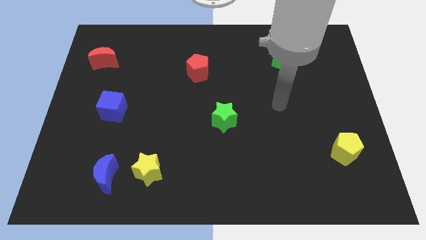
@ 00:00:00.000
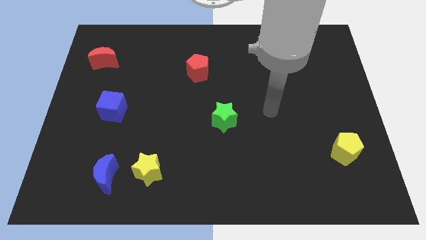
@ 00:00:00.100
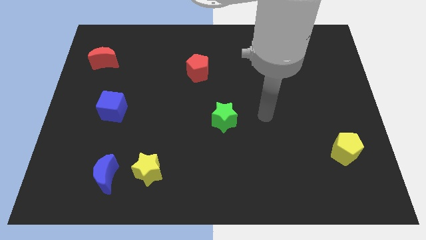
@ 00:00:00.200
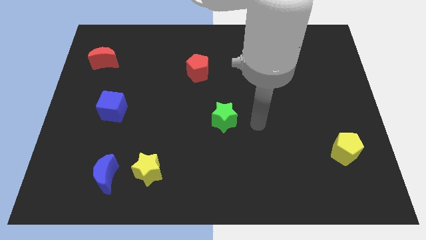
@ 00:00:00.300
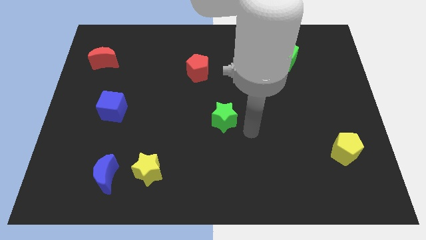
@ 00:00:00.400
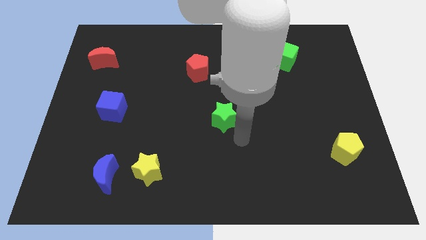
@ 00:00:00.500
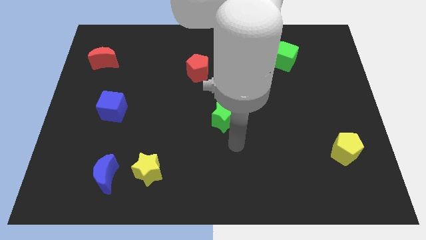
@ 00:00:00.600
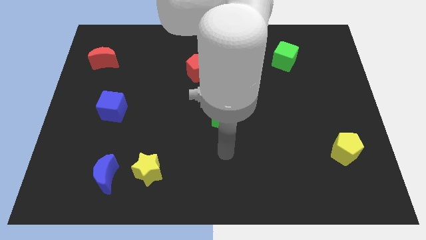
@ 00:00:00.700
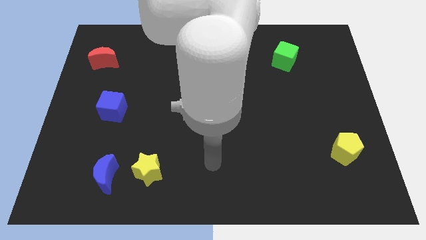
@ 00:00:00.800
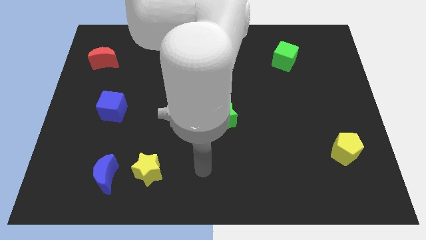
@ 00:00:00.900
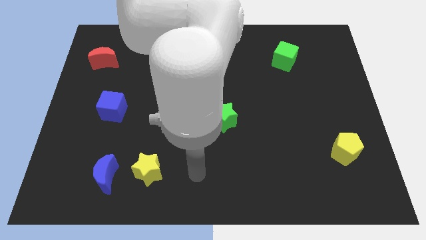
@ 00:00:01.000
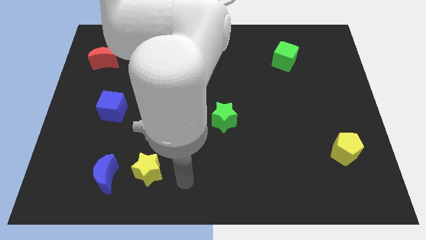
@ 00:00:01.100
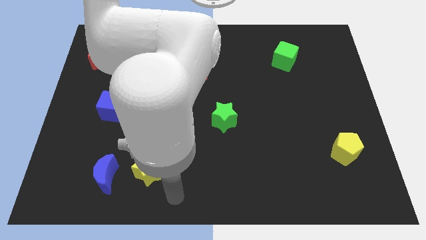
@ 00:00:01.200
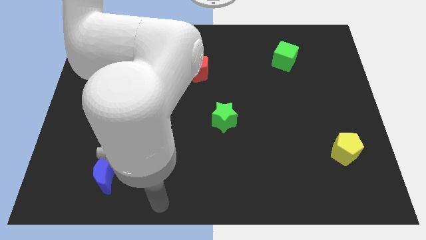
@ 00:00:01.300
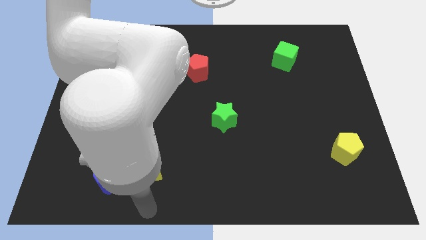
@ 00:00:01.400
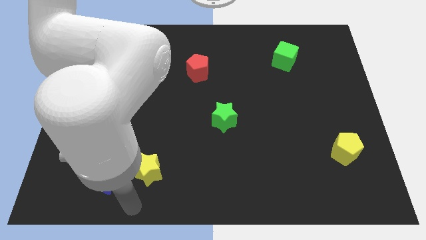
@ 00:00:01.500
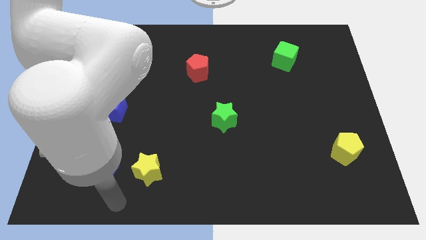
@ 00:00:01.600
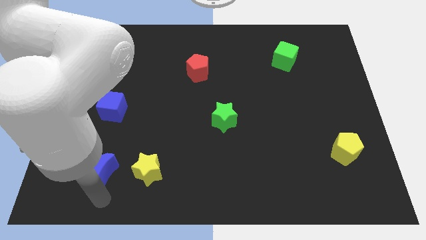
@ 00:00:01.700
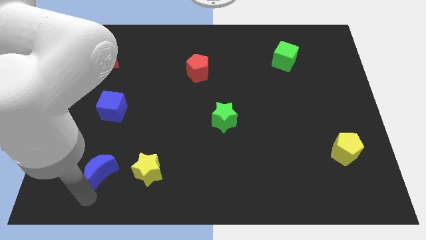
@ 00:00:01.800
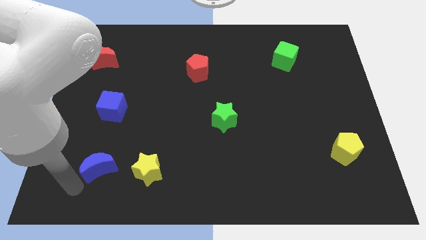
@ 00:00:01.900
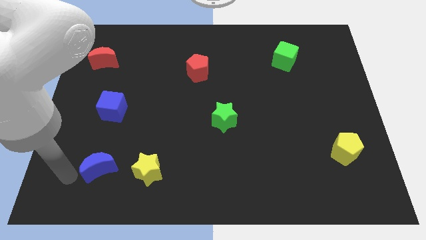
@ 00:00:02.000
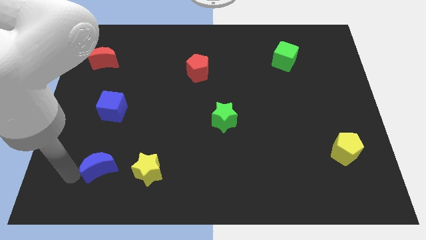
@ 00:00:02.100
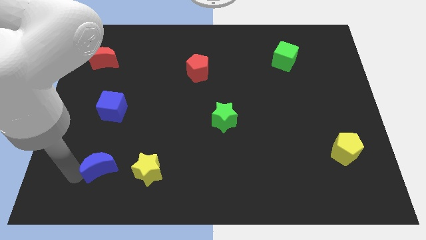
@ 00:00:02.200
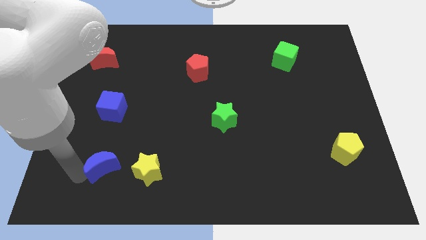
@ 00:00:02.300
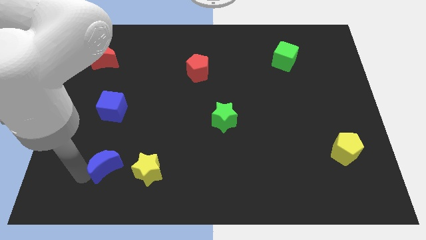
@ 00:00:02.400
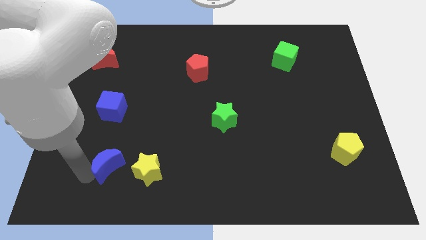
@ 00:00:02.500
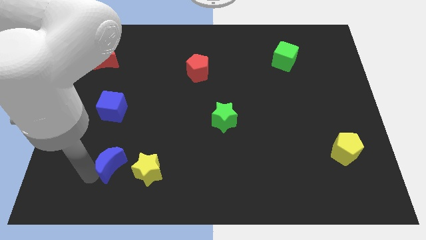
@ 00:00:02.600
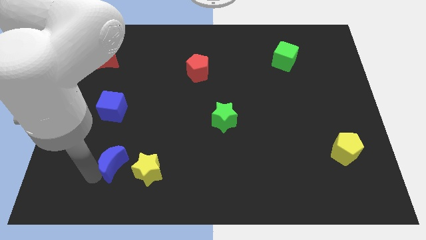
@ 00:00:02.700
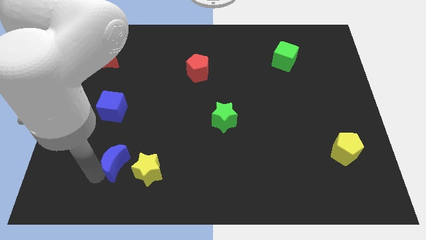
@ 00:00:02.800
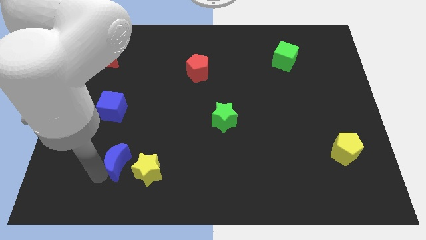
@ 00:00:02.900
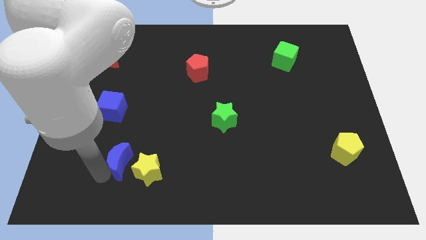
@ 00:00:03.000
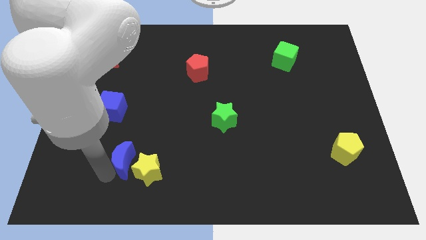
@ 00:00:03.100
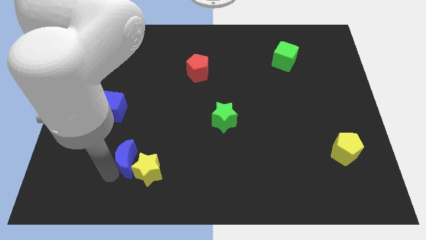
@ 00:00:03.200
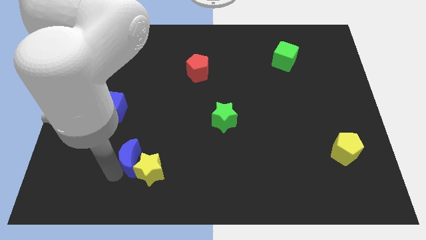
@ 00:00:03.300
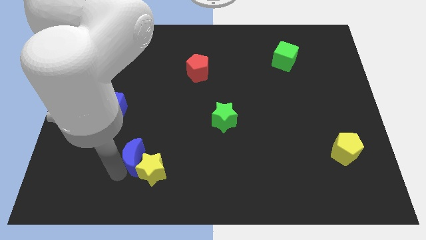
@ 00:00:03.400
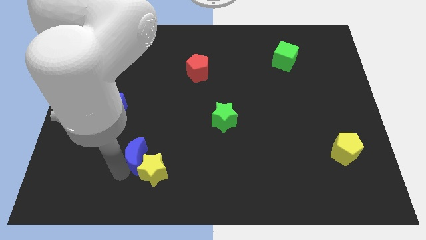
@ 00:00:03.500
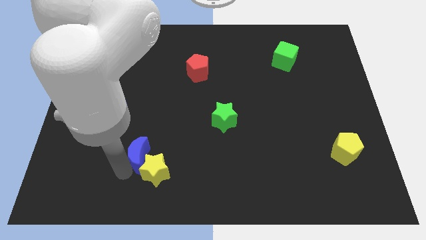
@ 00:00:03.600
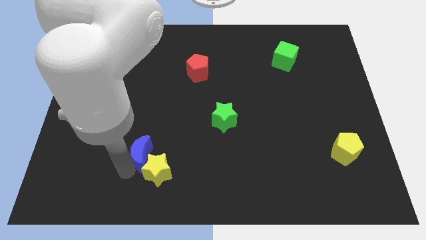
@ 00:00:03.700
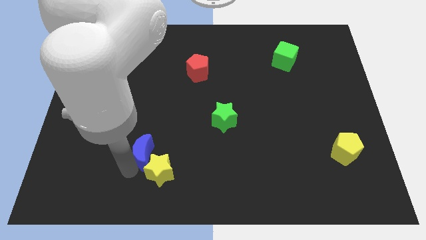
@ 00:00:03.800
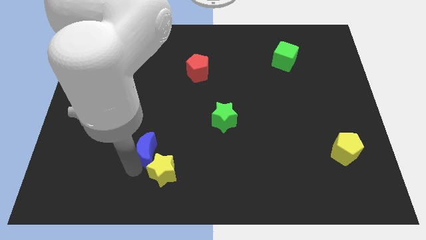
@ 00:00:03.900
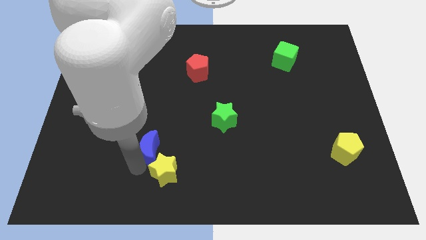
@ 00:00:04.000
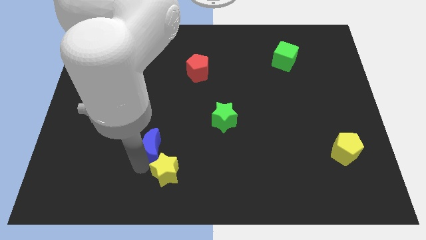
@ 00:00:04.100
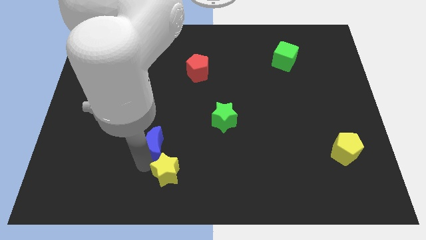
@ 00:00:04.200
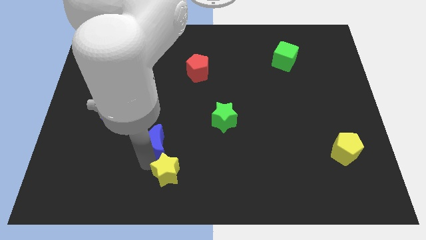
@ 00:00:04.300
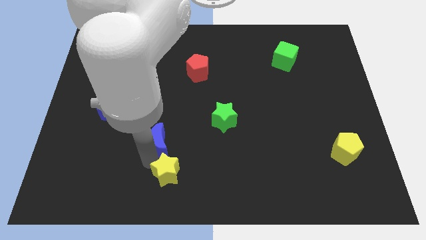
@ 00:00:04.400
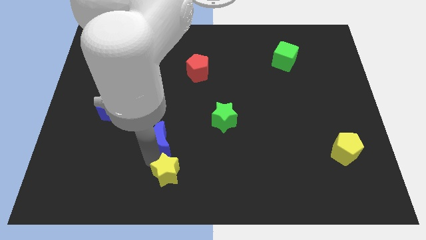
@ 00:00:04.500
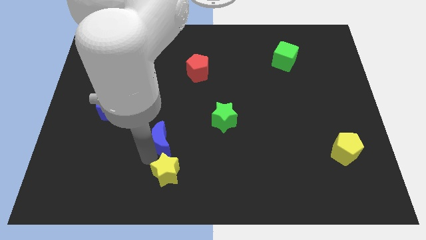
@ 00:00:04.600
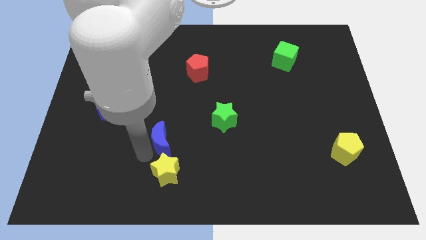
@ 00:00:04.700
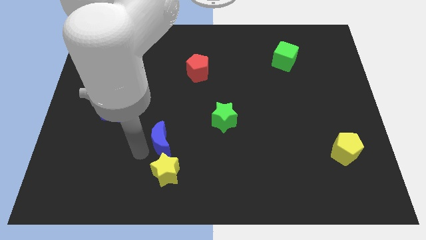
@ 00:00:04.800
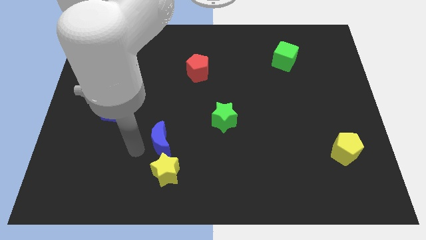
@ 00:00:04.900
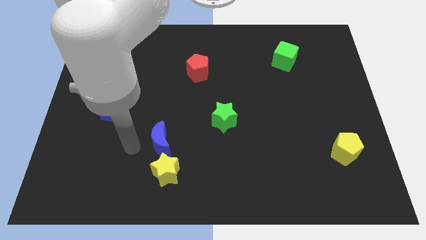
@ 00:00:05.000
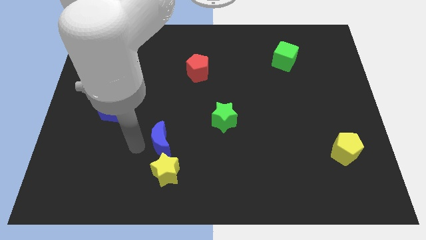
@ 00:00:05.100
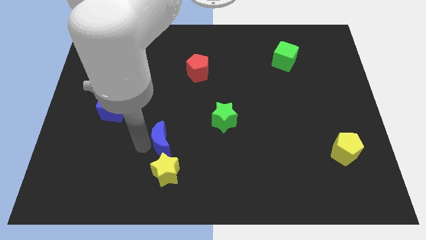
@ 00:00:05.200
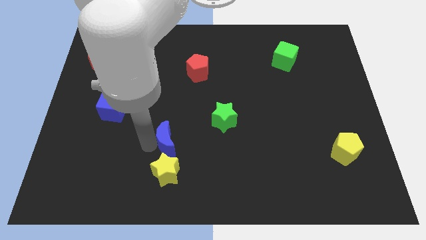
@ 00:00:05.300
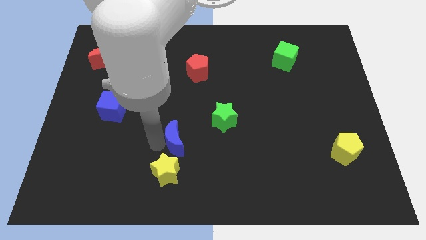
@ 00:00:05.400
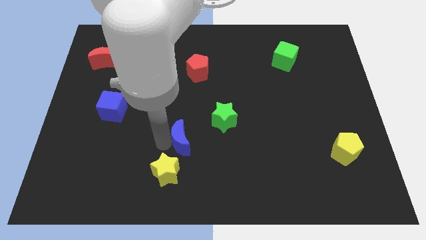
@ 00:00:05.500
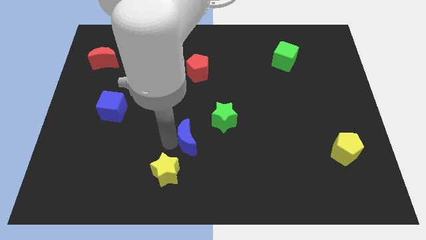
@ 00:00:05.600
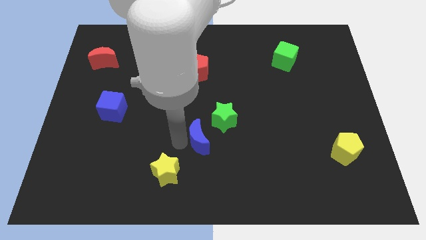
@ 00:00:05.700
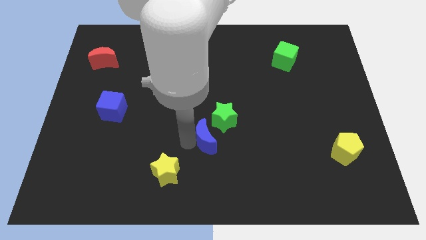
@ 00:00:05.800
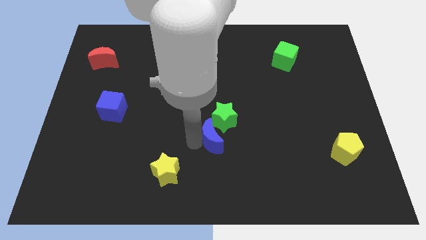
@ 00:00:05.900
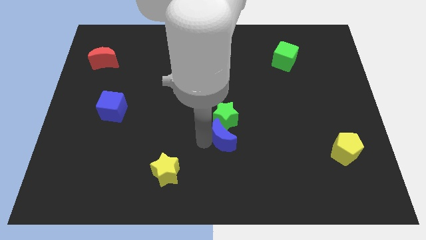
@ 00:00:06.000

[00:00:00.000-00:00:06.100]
push the blue moon to the bottom right side of the green star

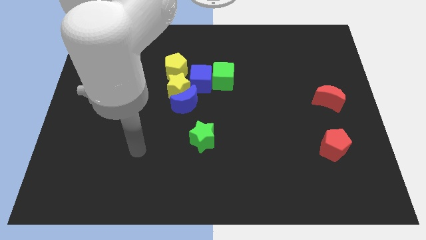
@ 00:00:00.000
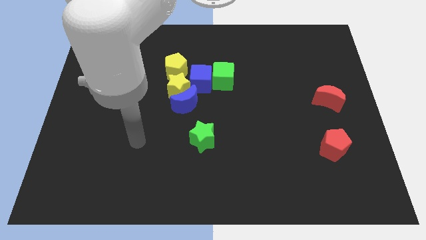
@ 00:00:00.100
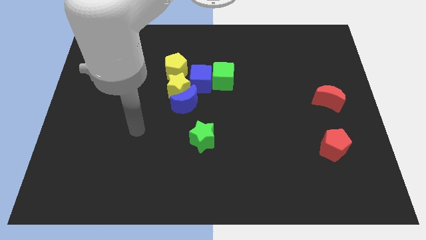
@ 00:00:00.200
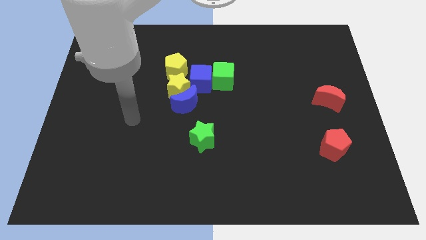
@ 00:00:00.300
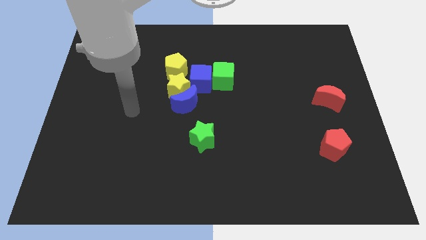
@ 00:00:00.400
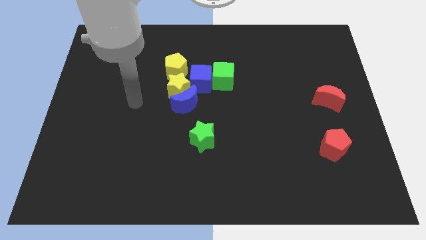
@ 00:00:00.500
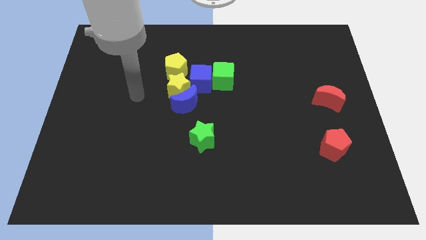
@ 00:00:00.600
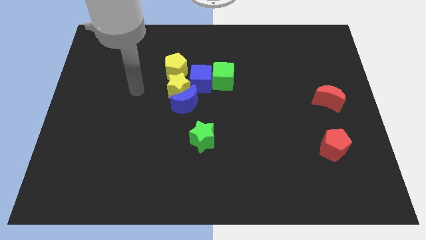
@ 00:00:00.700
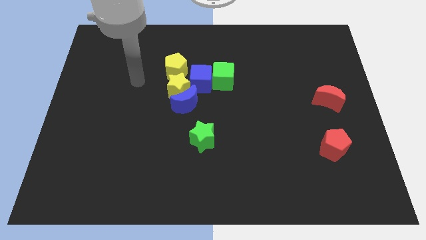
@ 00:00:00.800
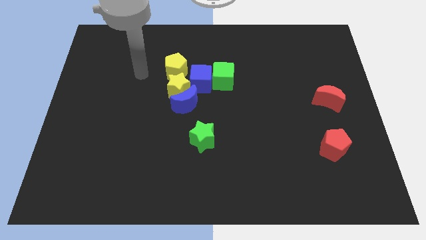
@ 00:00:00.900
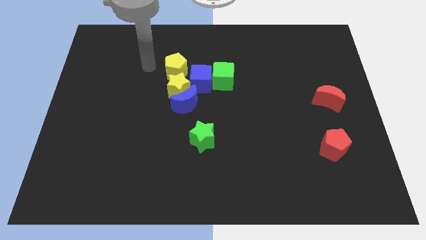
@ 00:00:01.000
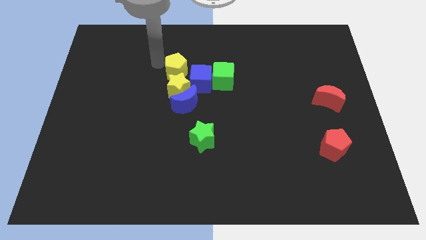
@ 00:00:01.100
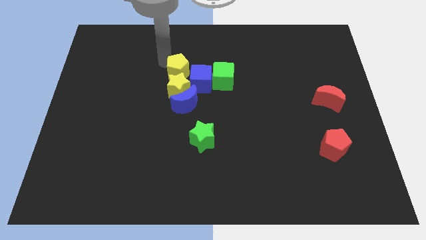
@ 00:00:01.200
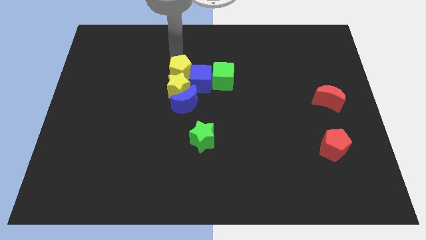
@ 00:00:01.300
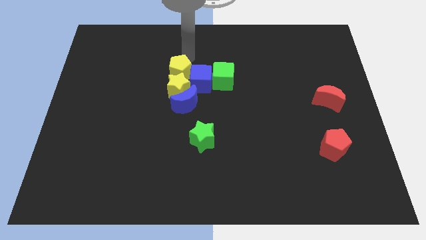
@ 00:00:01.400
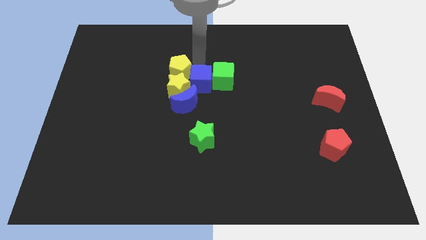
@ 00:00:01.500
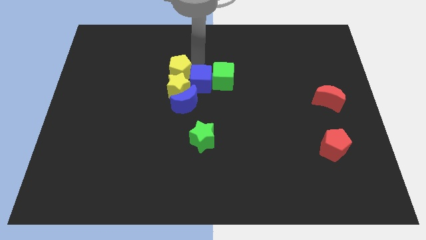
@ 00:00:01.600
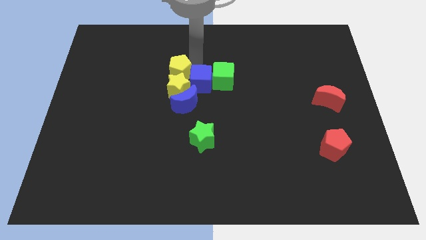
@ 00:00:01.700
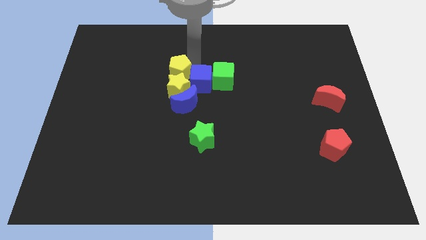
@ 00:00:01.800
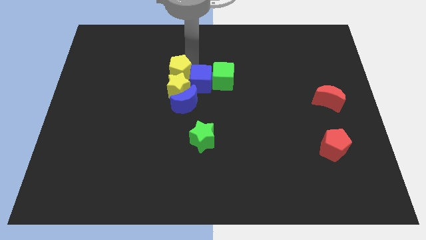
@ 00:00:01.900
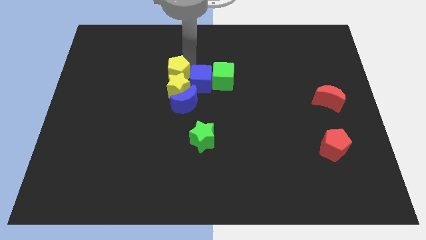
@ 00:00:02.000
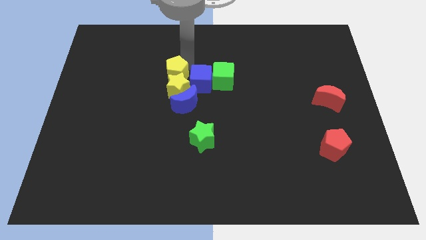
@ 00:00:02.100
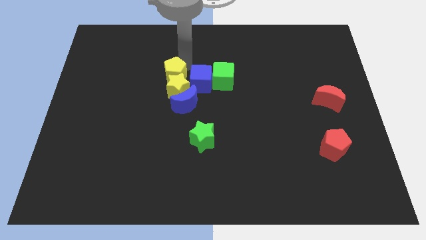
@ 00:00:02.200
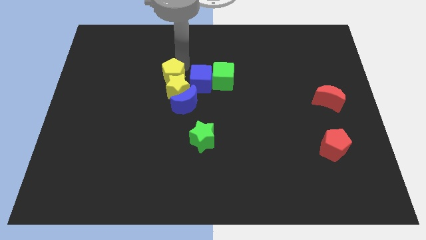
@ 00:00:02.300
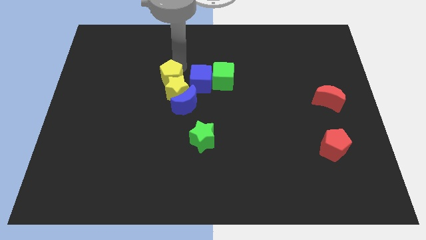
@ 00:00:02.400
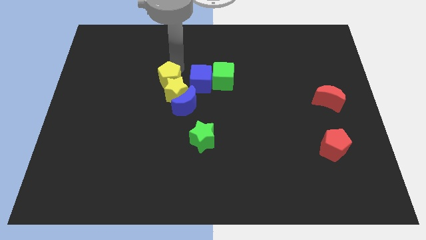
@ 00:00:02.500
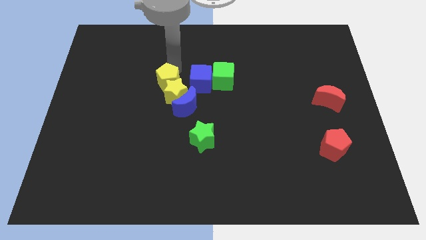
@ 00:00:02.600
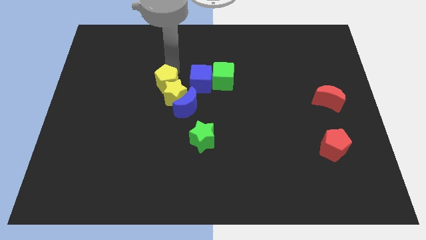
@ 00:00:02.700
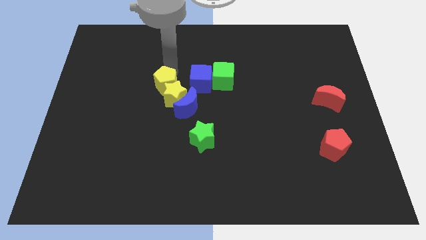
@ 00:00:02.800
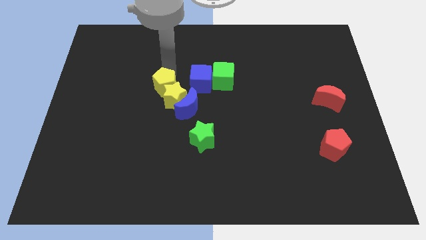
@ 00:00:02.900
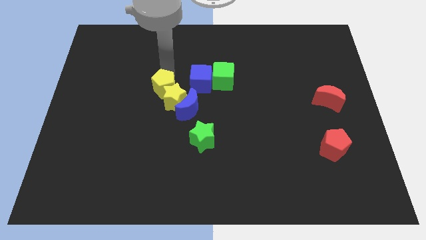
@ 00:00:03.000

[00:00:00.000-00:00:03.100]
move the yellow pentagon to the bottom left of the blue cube
